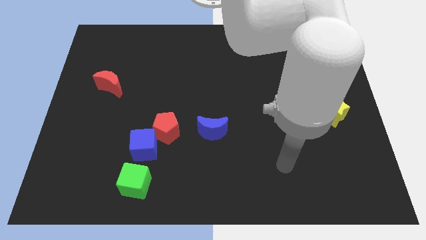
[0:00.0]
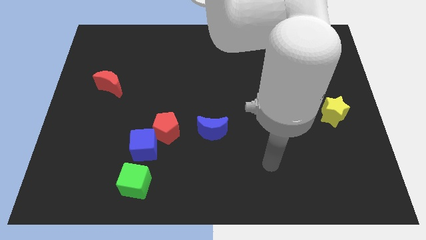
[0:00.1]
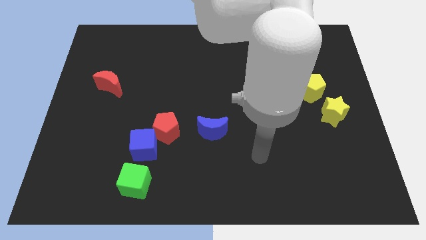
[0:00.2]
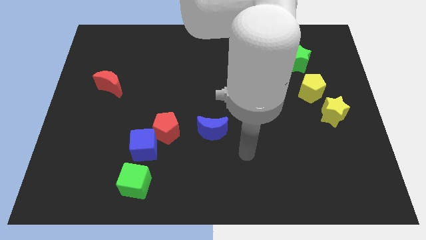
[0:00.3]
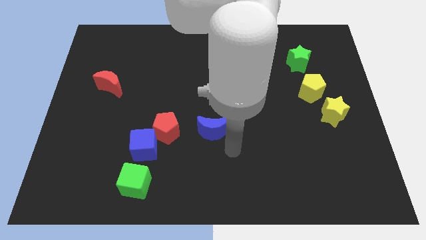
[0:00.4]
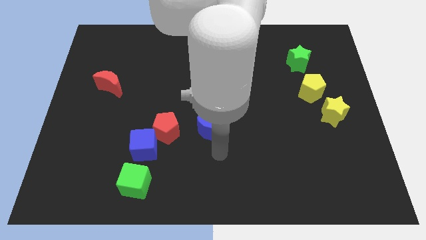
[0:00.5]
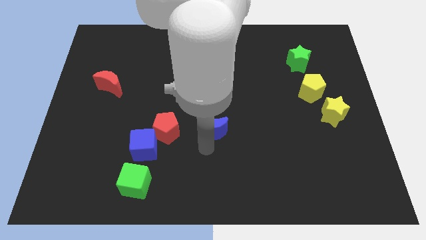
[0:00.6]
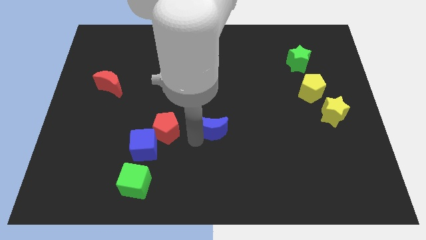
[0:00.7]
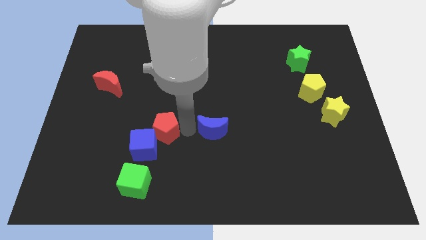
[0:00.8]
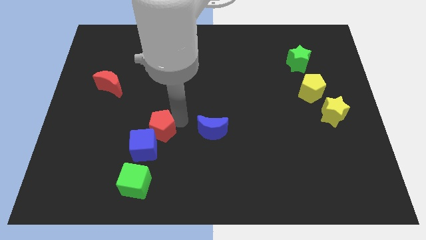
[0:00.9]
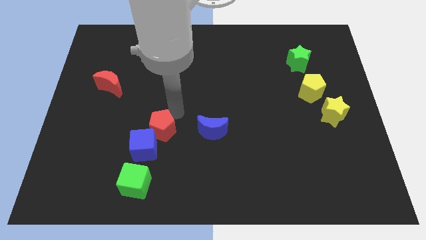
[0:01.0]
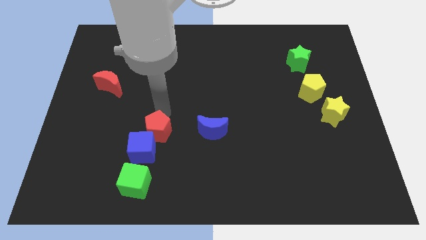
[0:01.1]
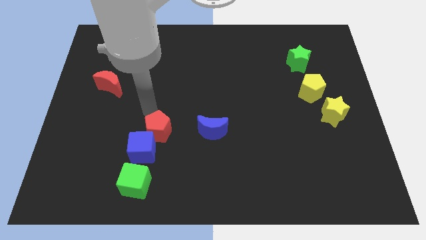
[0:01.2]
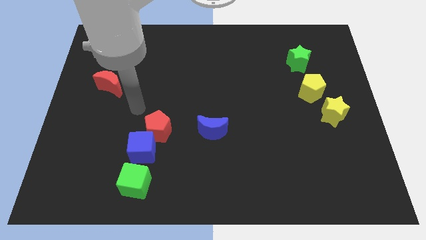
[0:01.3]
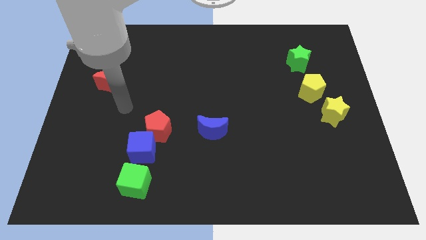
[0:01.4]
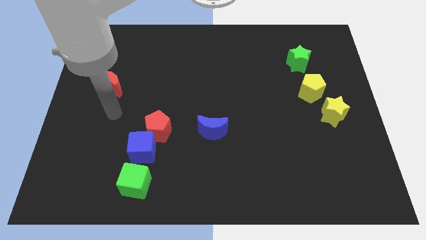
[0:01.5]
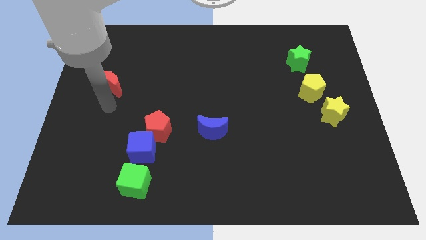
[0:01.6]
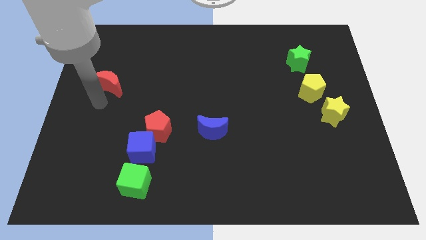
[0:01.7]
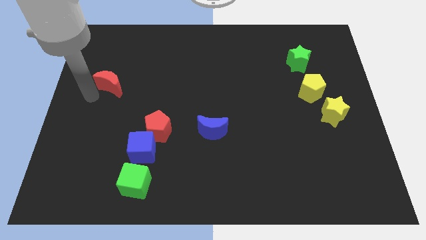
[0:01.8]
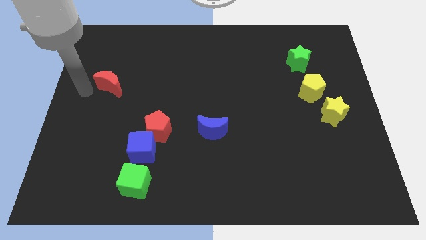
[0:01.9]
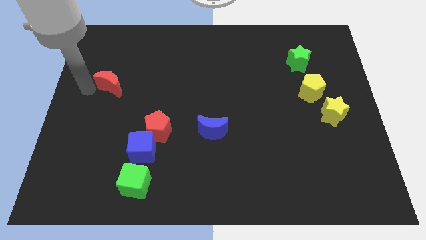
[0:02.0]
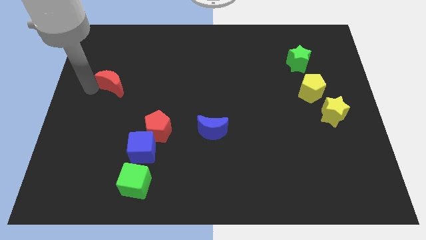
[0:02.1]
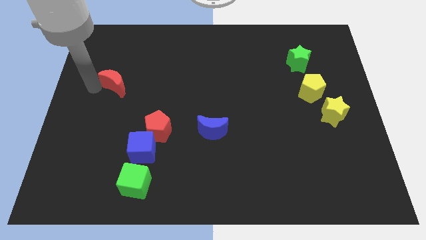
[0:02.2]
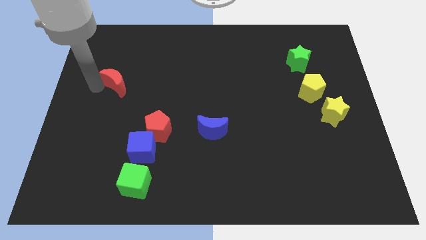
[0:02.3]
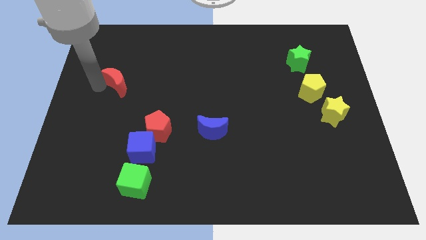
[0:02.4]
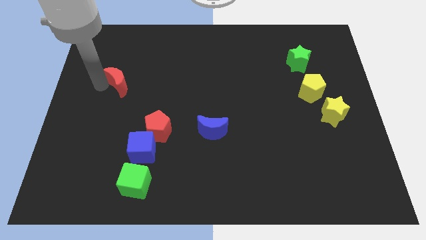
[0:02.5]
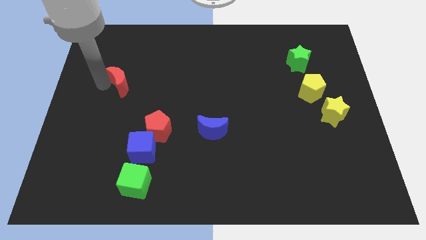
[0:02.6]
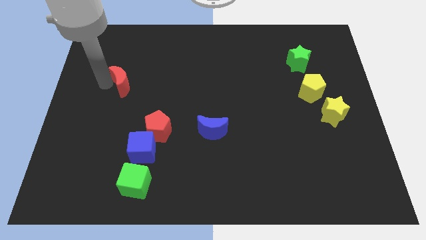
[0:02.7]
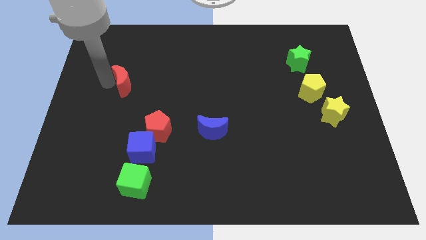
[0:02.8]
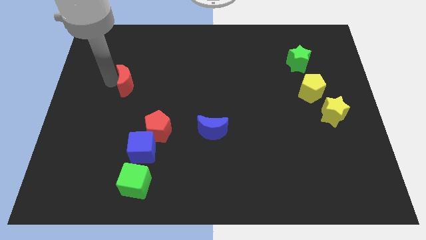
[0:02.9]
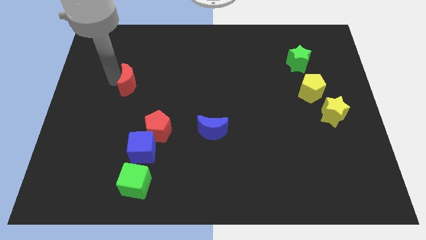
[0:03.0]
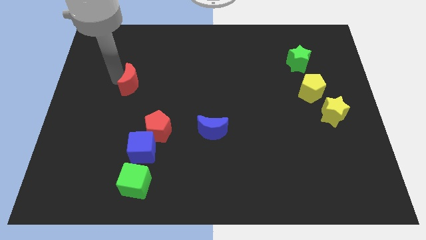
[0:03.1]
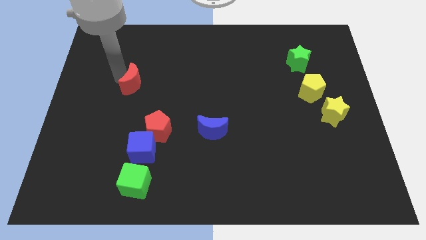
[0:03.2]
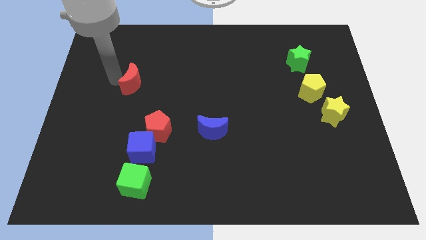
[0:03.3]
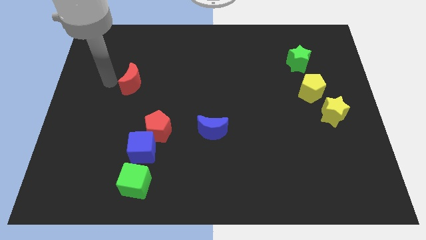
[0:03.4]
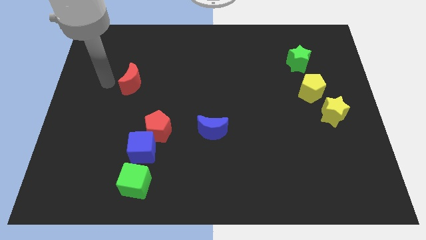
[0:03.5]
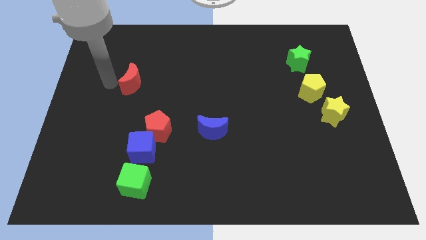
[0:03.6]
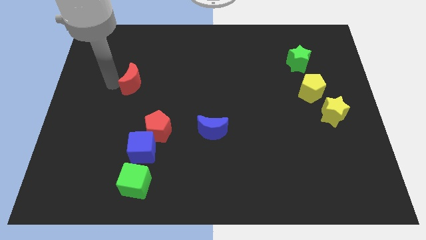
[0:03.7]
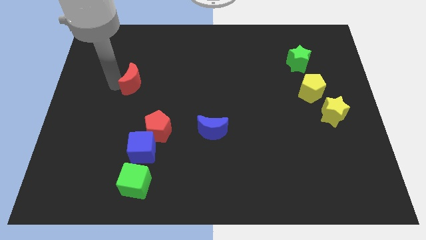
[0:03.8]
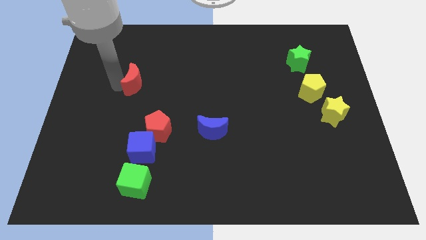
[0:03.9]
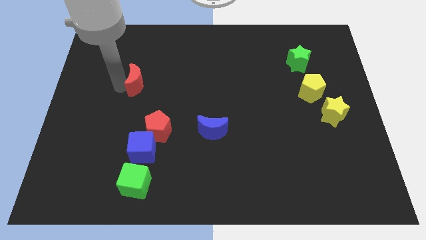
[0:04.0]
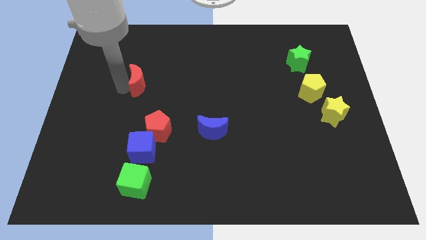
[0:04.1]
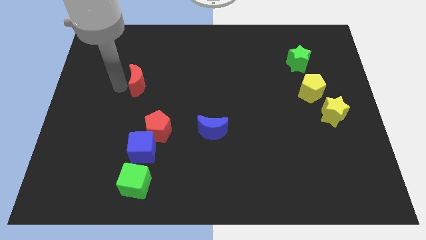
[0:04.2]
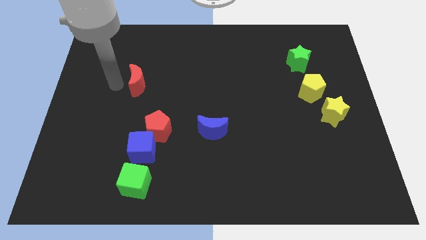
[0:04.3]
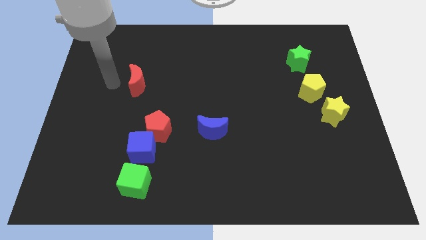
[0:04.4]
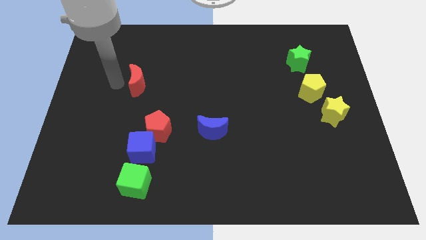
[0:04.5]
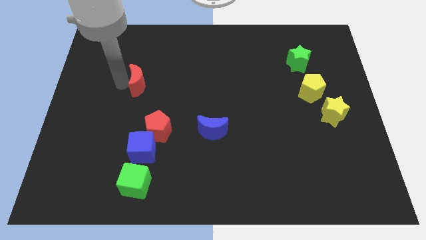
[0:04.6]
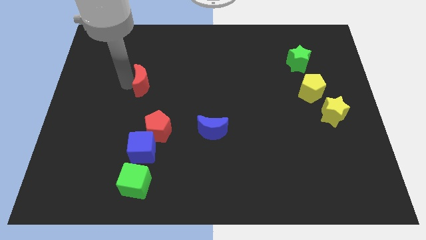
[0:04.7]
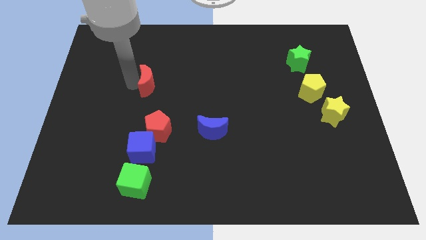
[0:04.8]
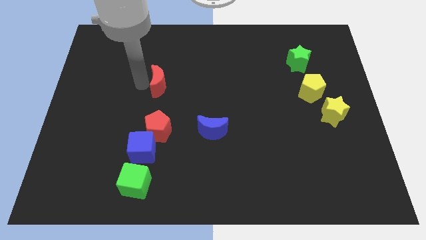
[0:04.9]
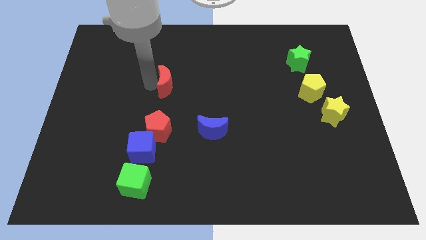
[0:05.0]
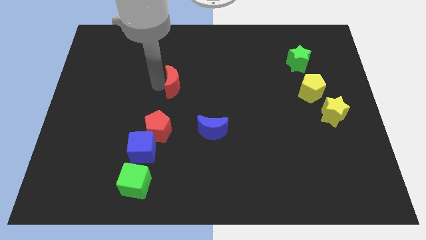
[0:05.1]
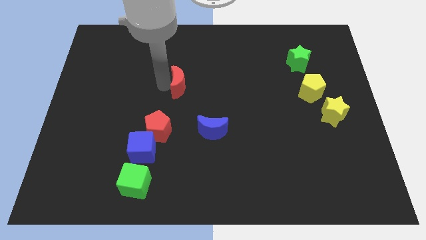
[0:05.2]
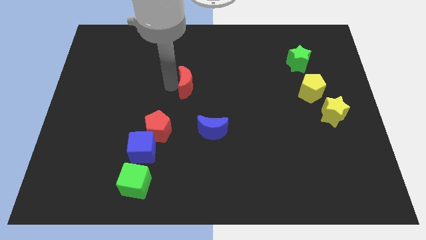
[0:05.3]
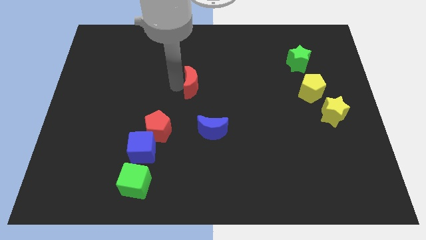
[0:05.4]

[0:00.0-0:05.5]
move the red moon to the right

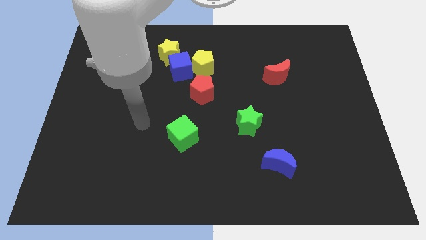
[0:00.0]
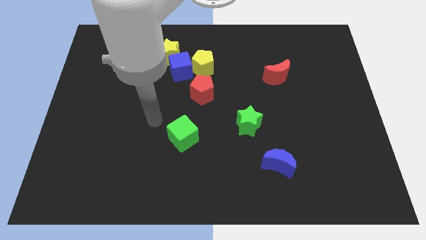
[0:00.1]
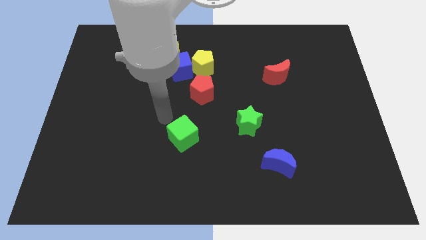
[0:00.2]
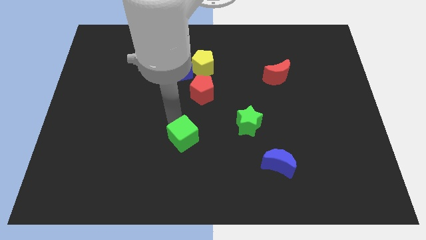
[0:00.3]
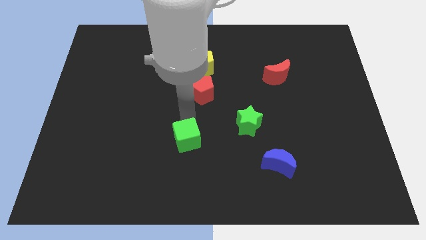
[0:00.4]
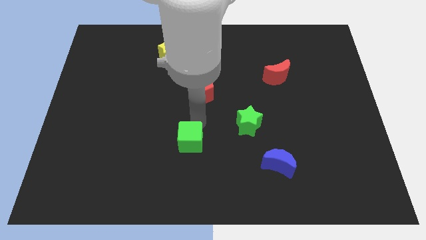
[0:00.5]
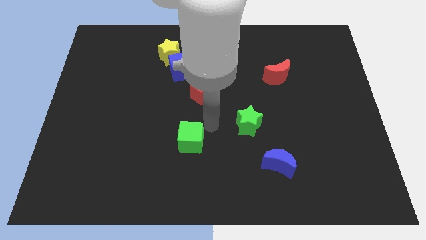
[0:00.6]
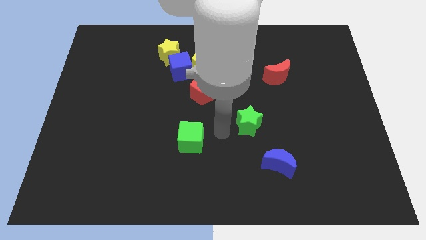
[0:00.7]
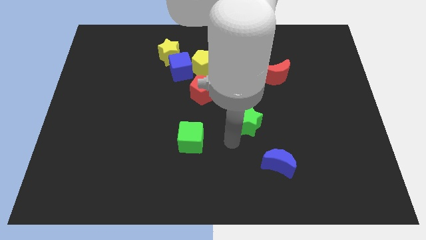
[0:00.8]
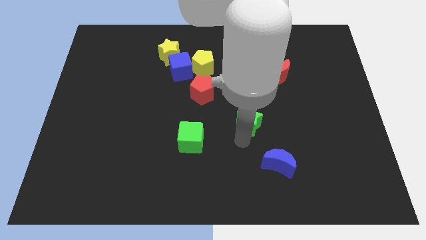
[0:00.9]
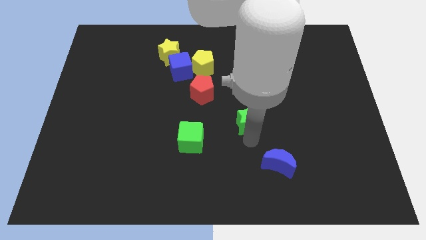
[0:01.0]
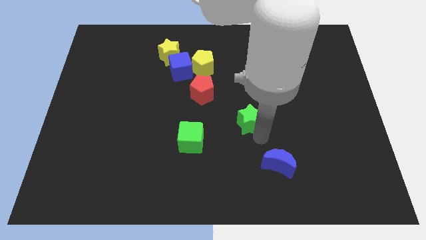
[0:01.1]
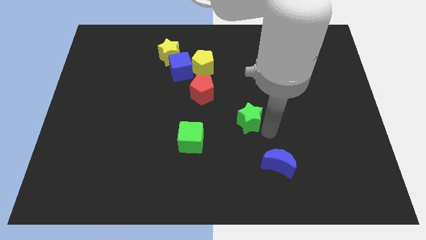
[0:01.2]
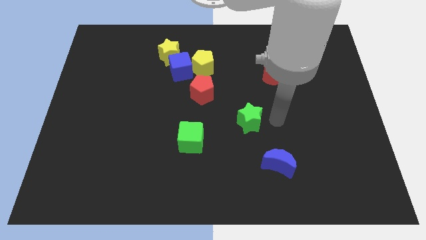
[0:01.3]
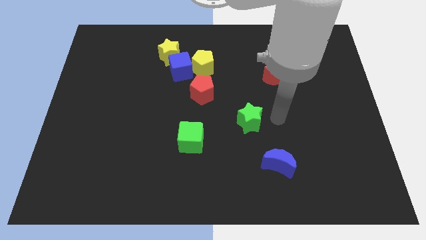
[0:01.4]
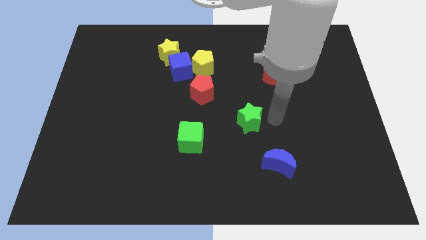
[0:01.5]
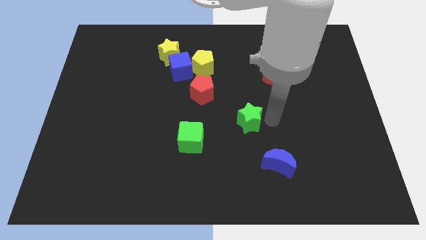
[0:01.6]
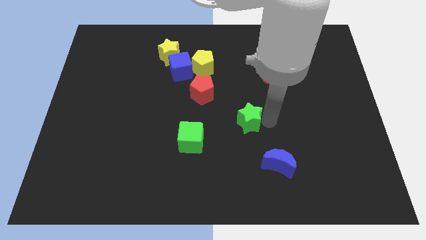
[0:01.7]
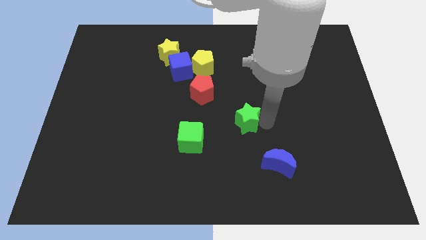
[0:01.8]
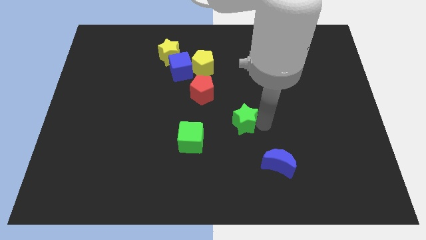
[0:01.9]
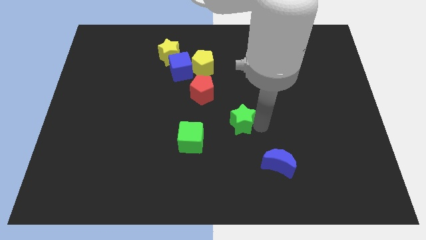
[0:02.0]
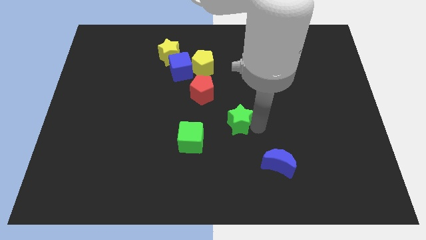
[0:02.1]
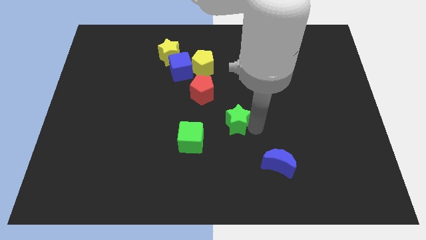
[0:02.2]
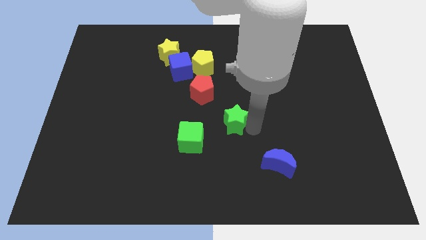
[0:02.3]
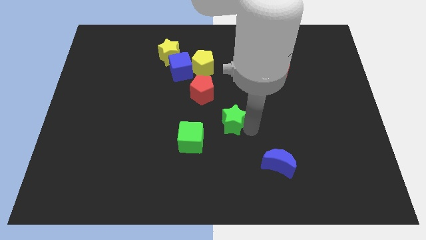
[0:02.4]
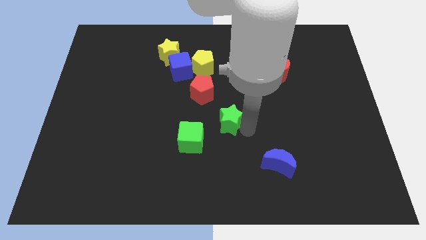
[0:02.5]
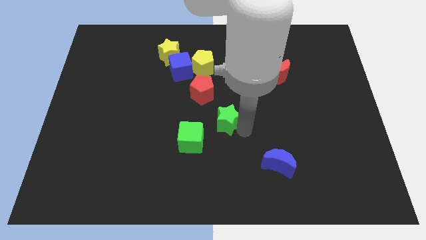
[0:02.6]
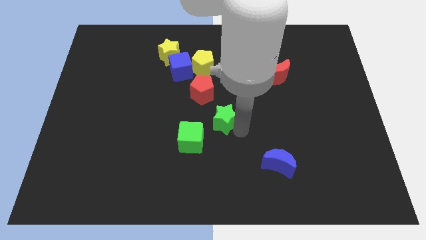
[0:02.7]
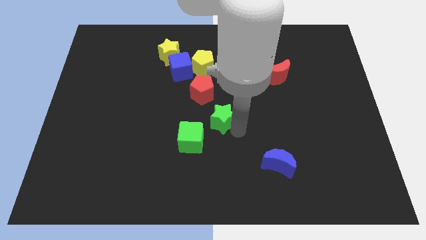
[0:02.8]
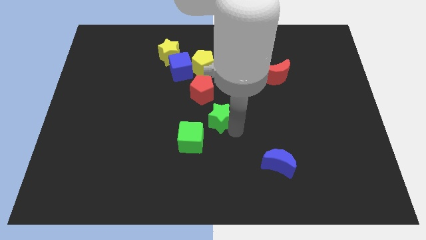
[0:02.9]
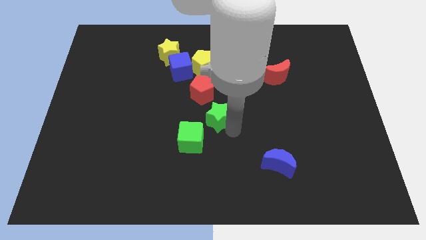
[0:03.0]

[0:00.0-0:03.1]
push the green star left a little bit
